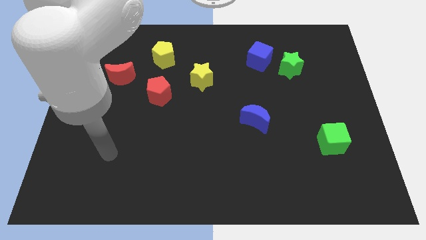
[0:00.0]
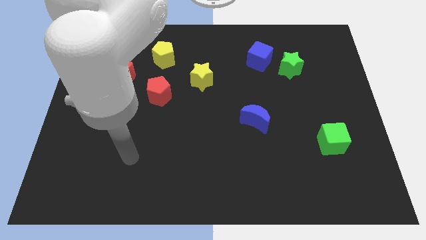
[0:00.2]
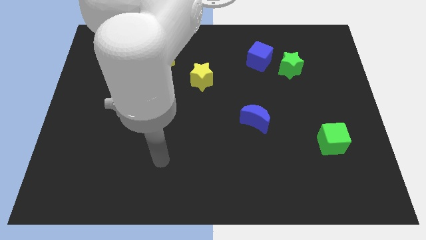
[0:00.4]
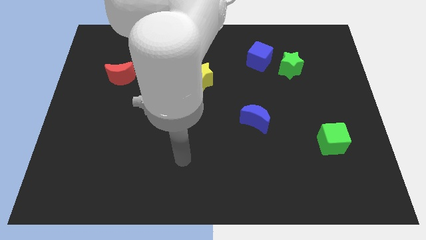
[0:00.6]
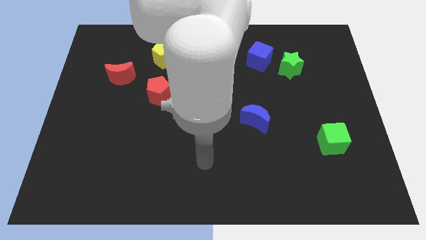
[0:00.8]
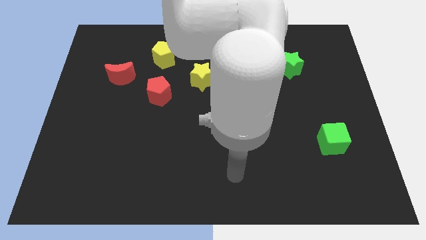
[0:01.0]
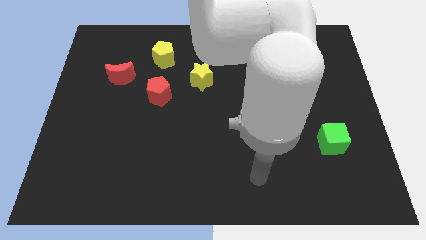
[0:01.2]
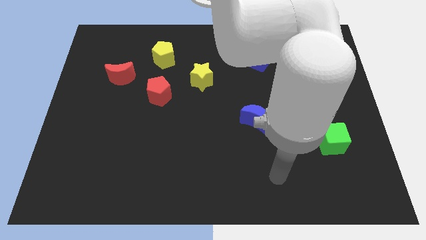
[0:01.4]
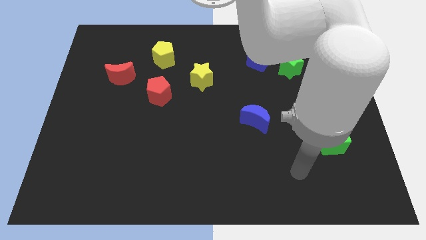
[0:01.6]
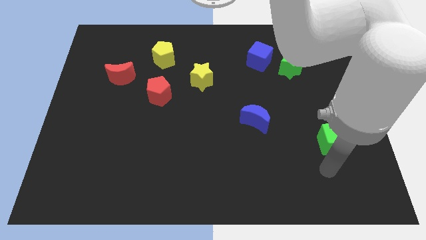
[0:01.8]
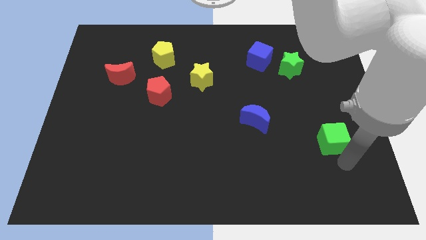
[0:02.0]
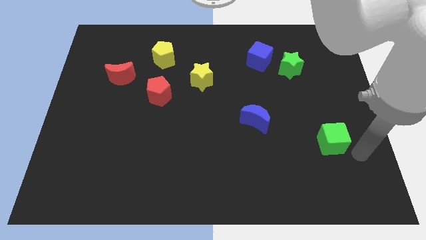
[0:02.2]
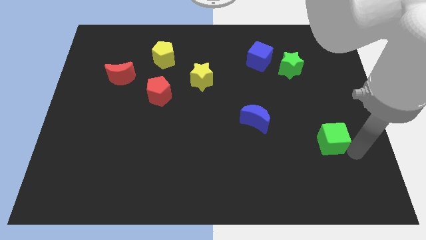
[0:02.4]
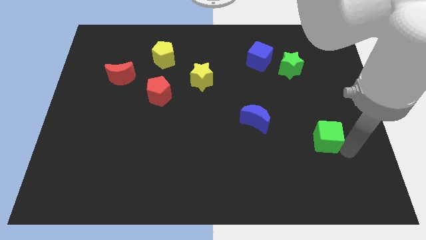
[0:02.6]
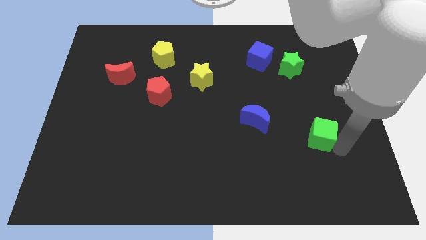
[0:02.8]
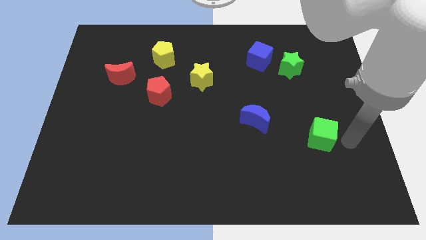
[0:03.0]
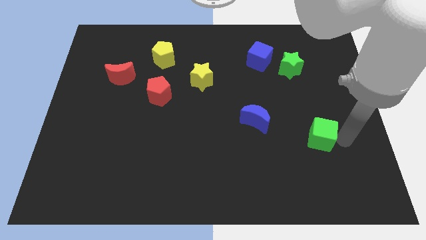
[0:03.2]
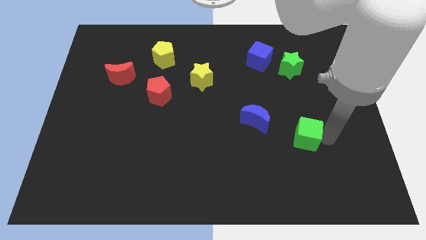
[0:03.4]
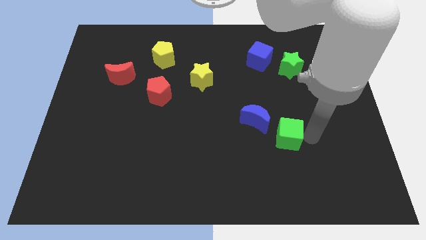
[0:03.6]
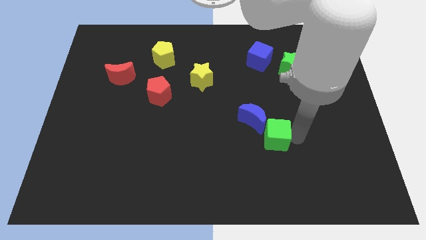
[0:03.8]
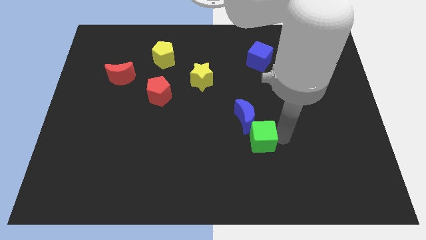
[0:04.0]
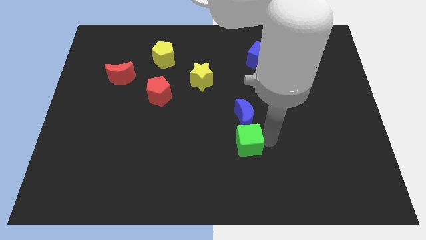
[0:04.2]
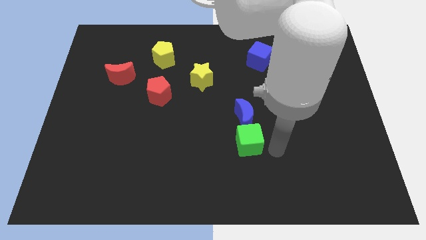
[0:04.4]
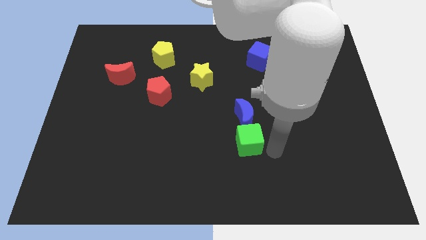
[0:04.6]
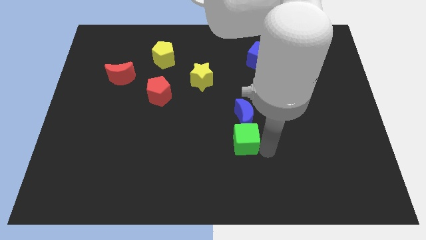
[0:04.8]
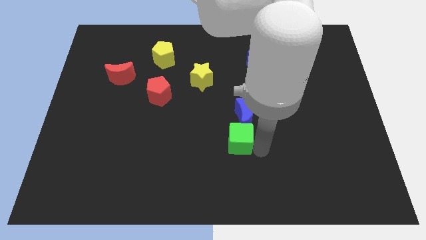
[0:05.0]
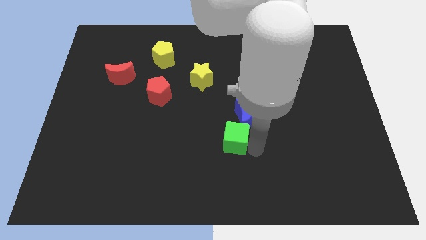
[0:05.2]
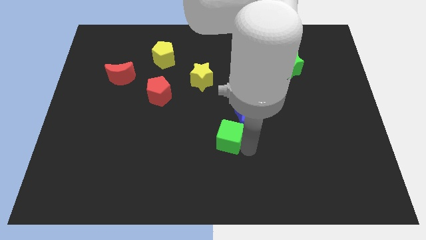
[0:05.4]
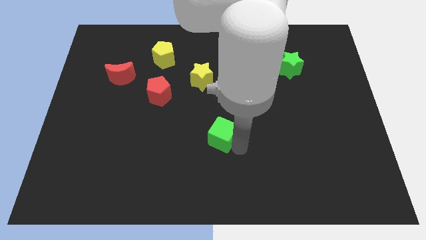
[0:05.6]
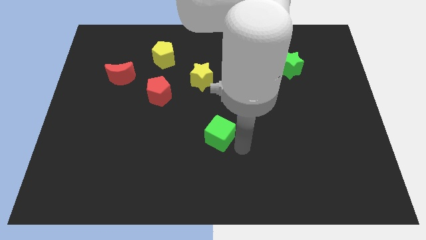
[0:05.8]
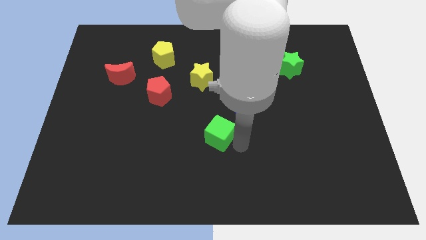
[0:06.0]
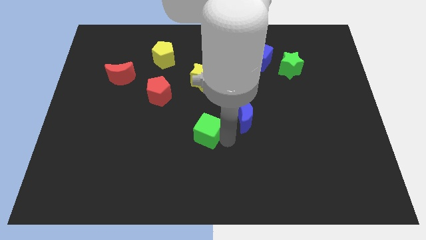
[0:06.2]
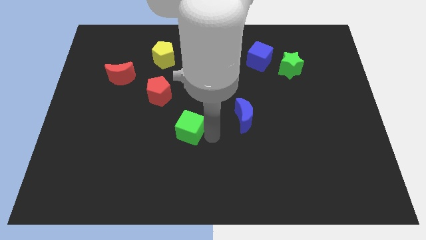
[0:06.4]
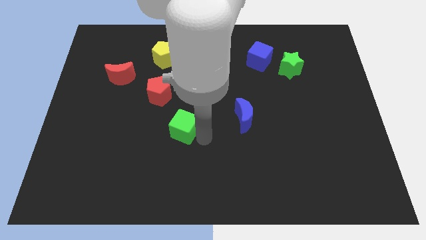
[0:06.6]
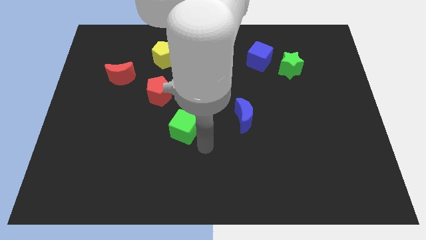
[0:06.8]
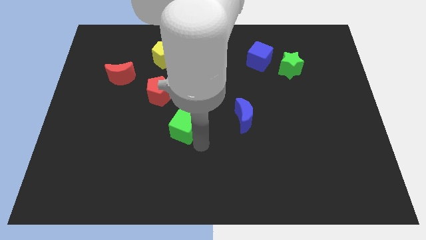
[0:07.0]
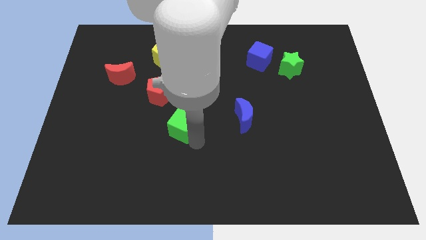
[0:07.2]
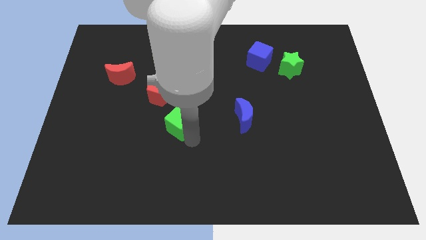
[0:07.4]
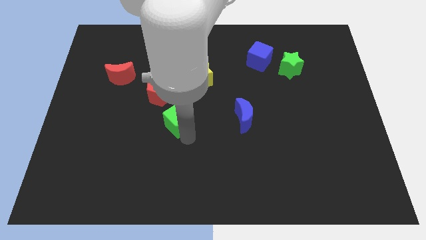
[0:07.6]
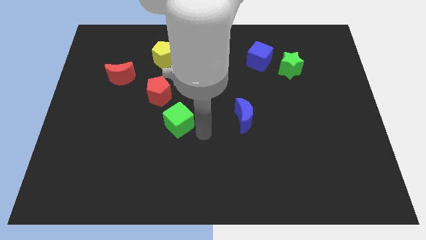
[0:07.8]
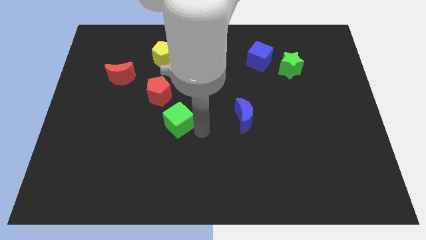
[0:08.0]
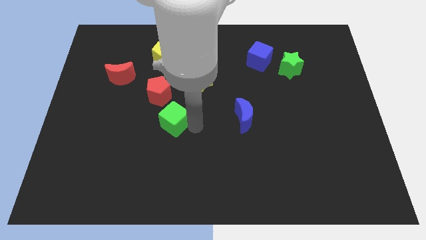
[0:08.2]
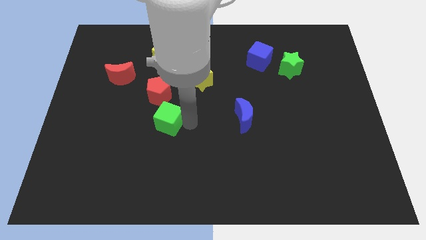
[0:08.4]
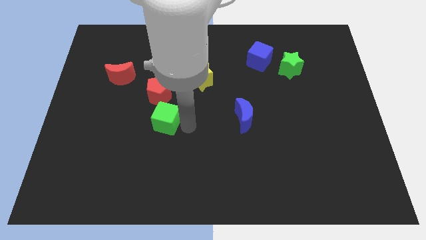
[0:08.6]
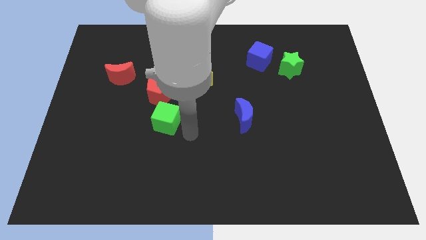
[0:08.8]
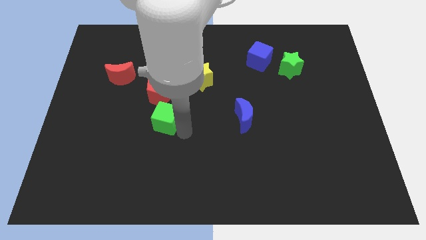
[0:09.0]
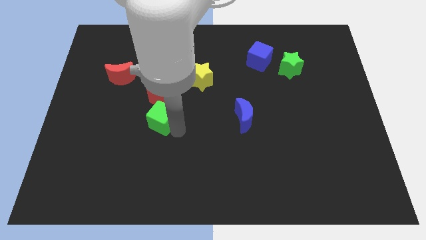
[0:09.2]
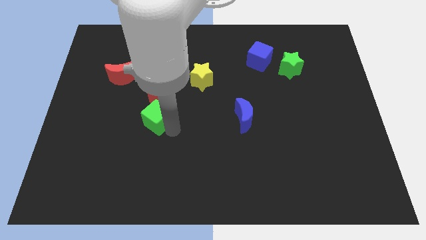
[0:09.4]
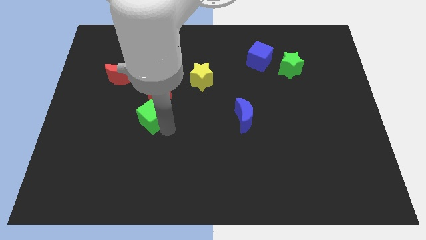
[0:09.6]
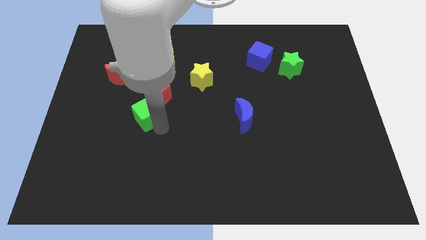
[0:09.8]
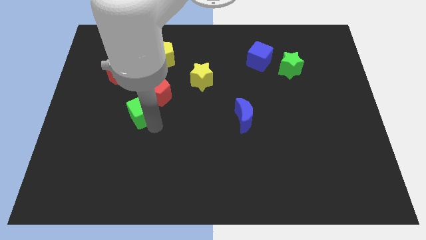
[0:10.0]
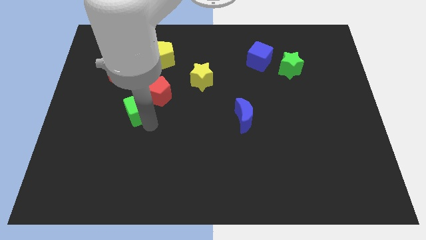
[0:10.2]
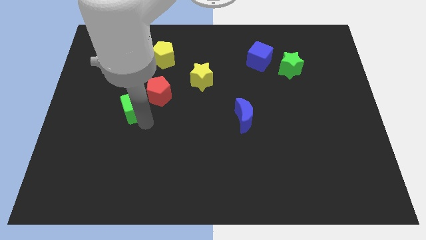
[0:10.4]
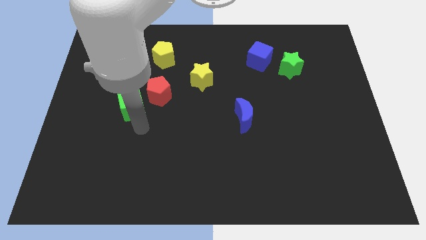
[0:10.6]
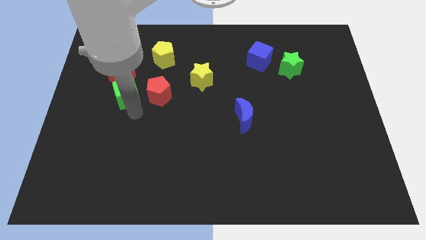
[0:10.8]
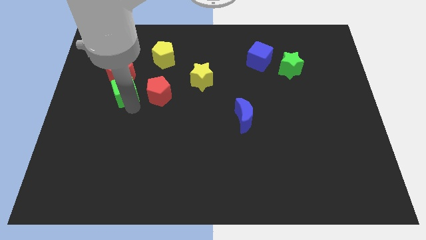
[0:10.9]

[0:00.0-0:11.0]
slide the green cube towards the red moon

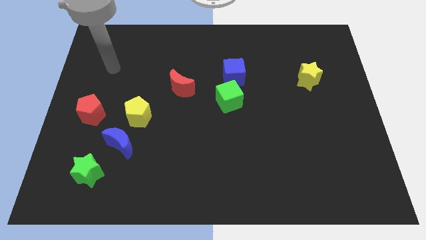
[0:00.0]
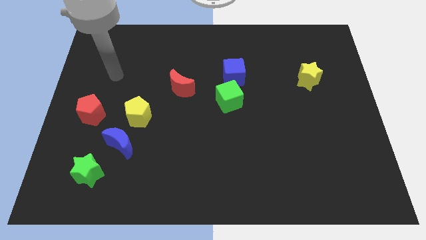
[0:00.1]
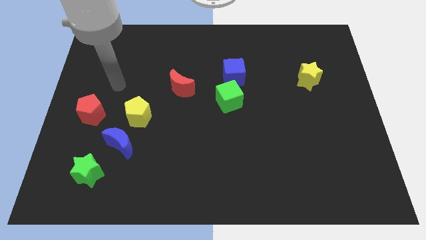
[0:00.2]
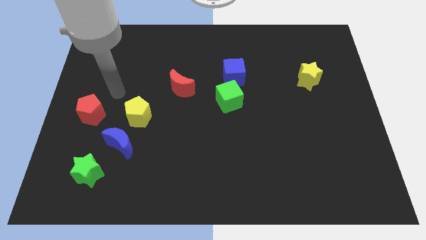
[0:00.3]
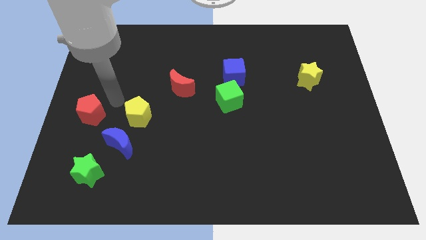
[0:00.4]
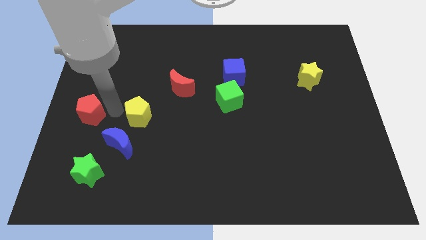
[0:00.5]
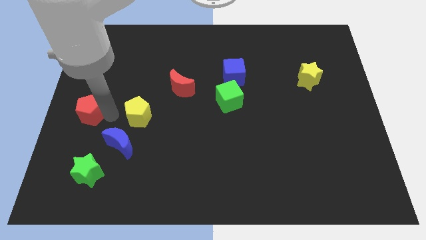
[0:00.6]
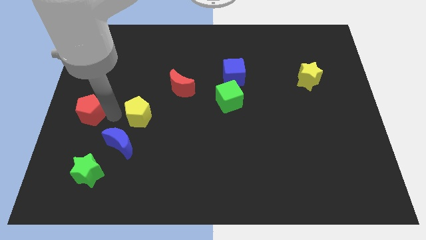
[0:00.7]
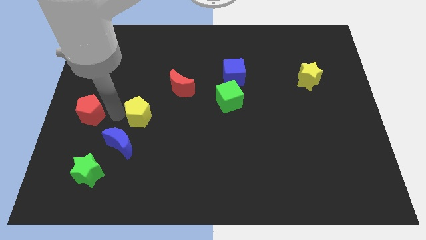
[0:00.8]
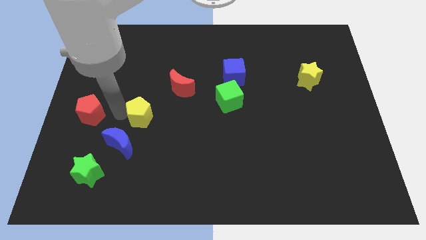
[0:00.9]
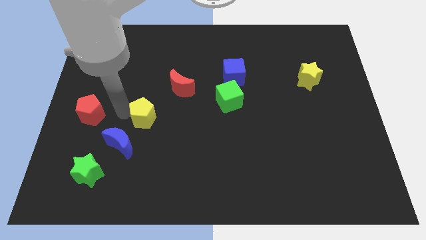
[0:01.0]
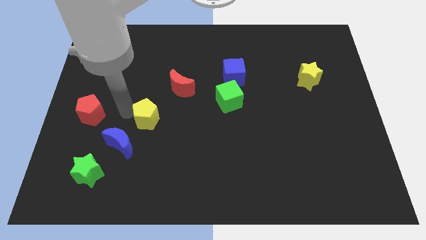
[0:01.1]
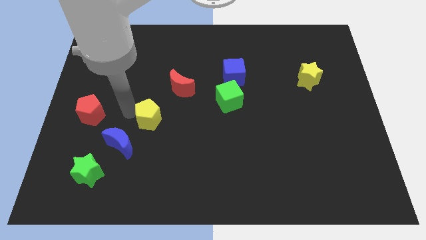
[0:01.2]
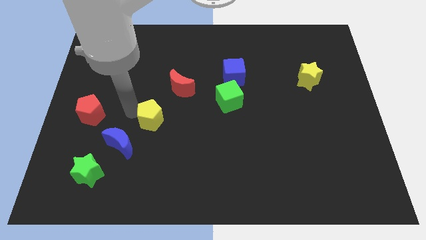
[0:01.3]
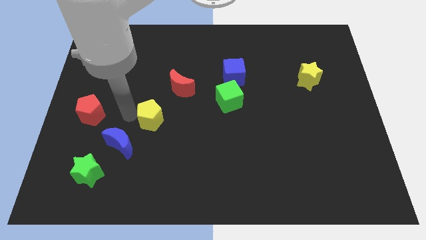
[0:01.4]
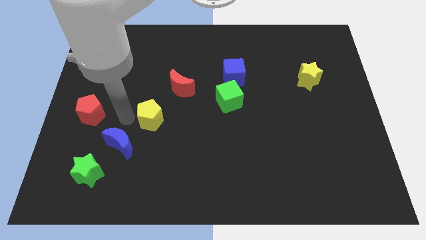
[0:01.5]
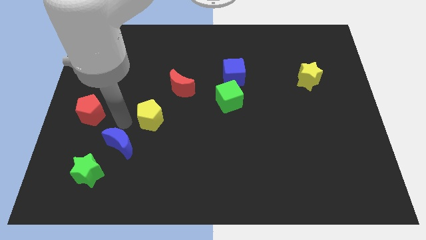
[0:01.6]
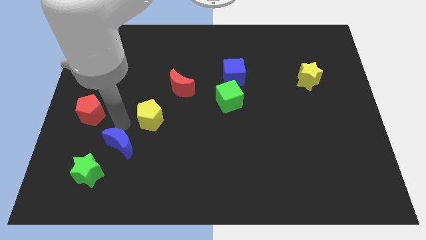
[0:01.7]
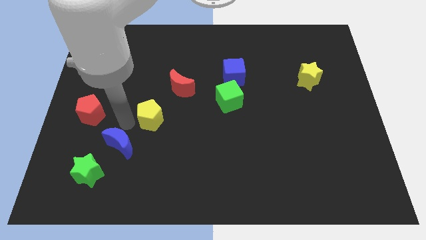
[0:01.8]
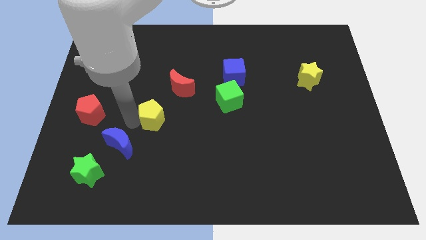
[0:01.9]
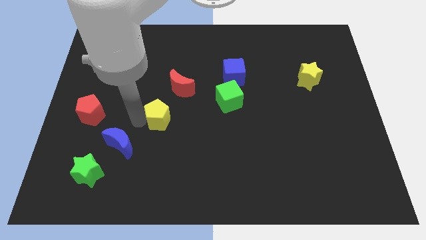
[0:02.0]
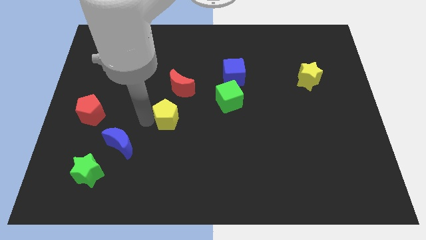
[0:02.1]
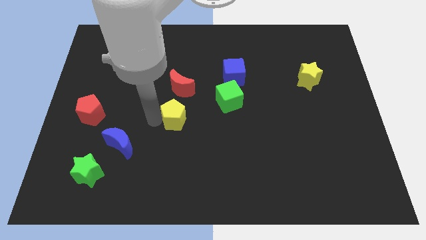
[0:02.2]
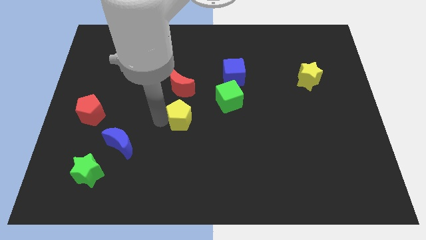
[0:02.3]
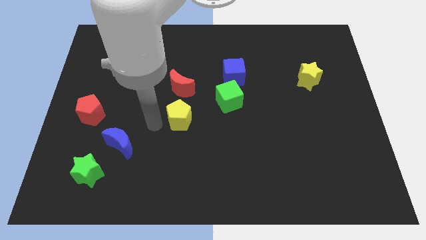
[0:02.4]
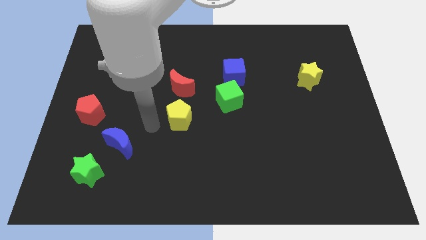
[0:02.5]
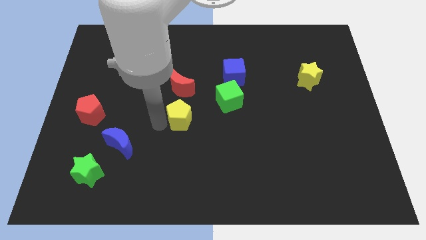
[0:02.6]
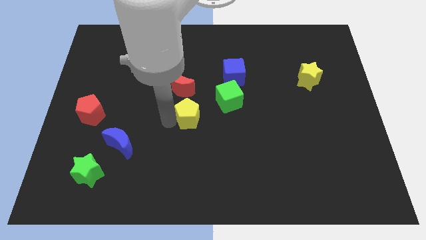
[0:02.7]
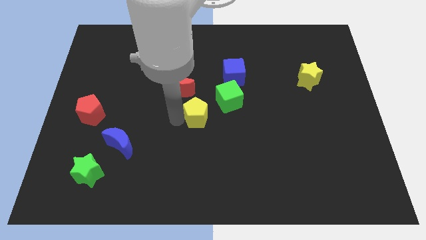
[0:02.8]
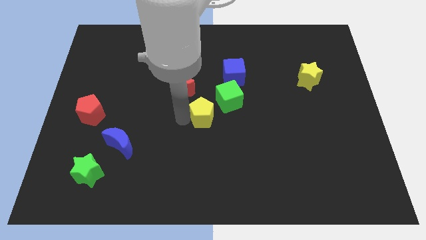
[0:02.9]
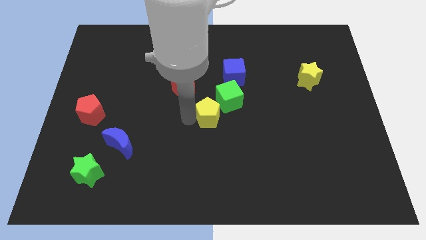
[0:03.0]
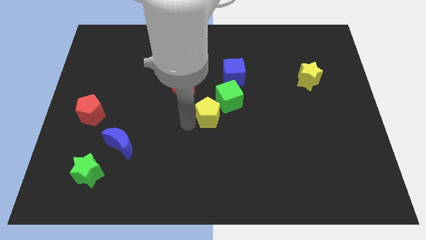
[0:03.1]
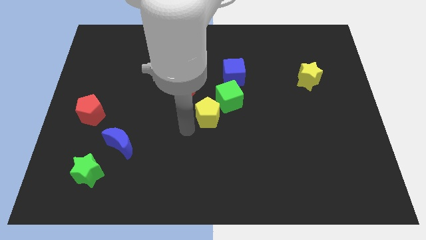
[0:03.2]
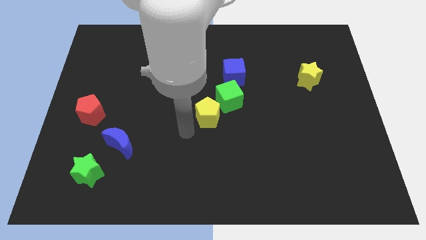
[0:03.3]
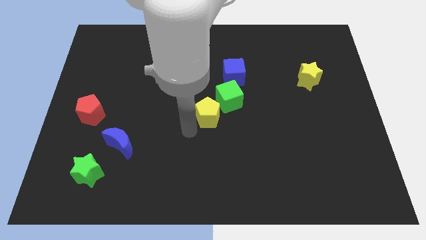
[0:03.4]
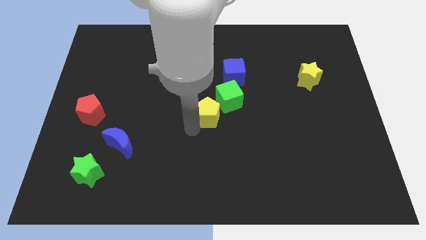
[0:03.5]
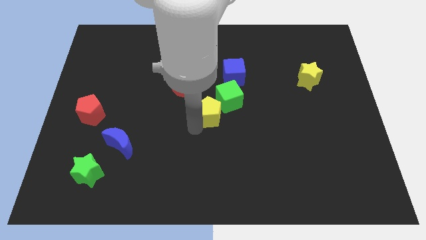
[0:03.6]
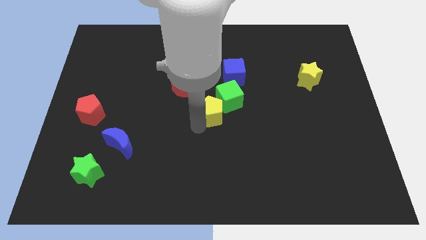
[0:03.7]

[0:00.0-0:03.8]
slide the yellow pentagon close to the green cube
